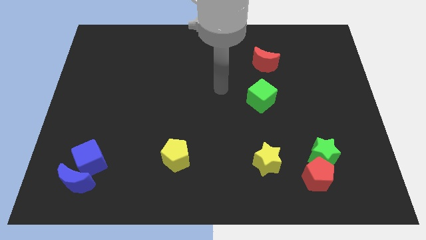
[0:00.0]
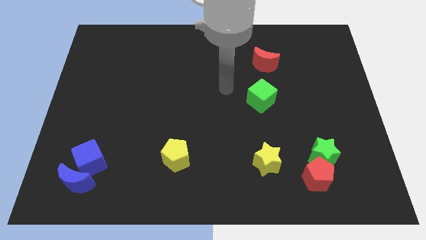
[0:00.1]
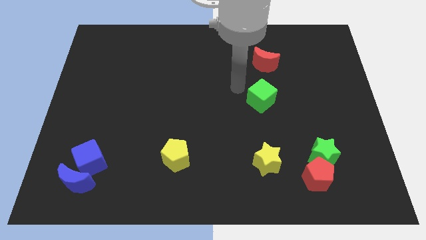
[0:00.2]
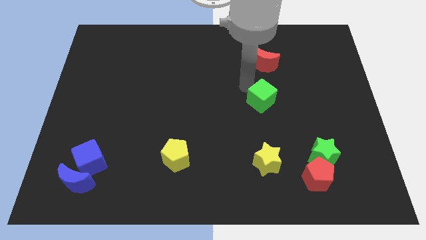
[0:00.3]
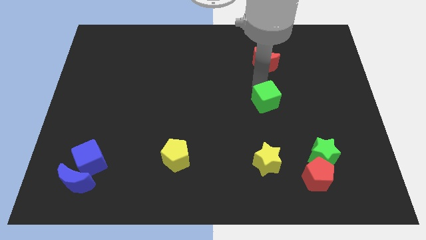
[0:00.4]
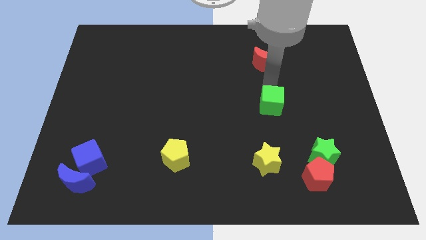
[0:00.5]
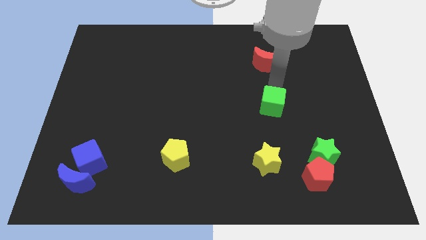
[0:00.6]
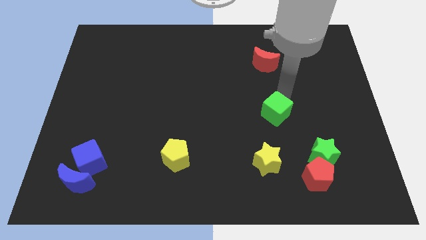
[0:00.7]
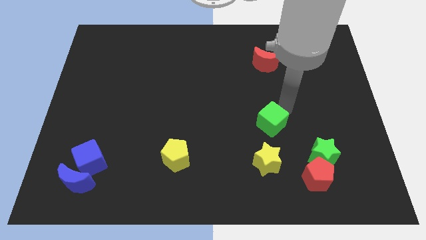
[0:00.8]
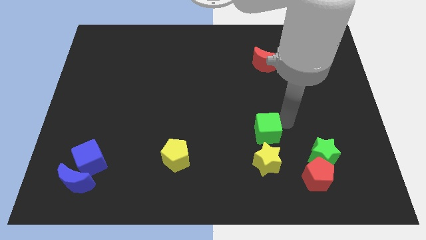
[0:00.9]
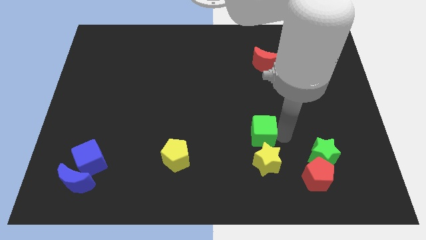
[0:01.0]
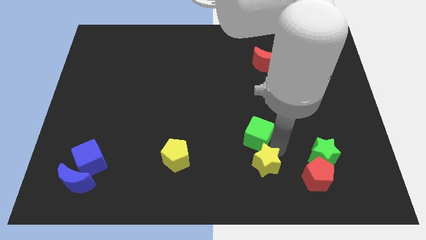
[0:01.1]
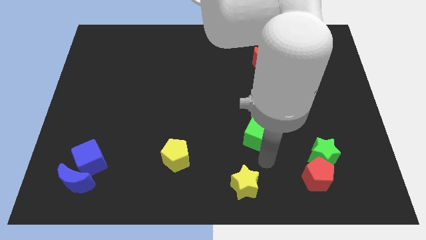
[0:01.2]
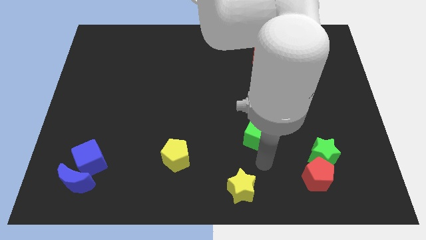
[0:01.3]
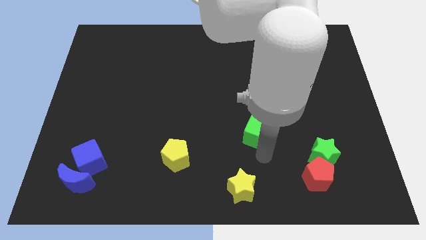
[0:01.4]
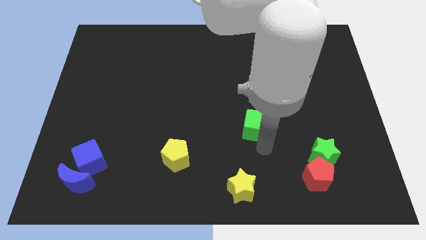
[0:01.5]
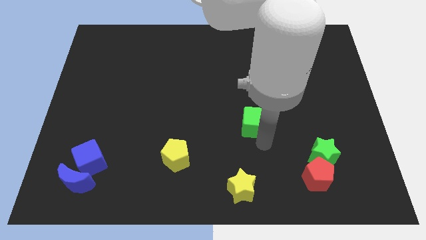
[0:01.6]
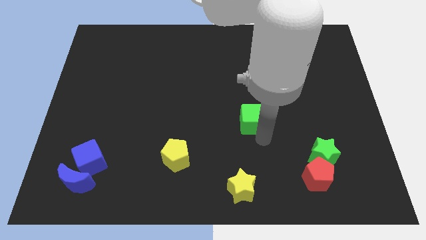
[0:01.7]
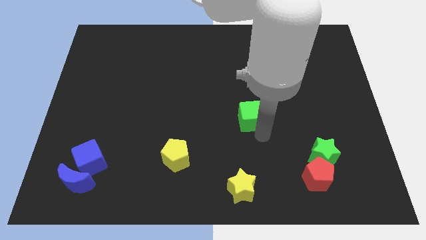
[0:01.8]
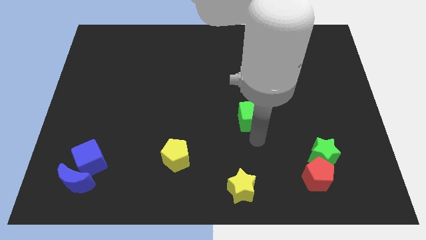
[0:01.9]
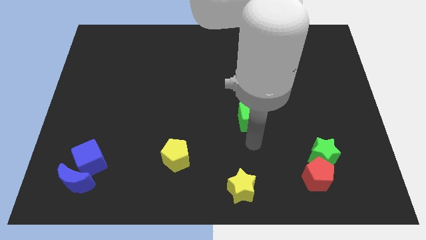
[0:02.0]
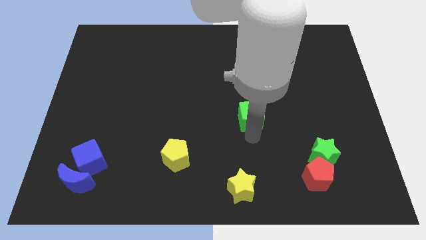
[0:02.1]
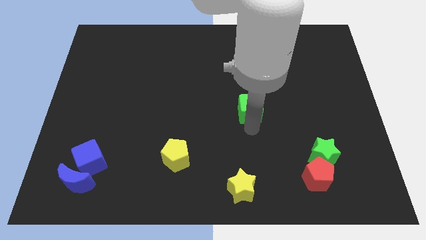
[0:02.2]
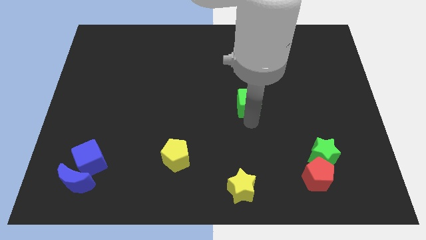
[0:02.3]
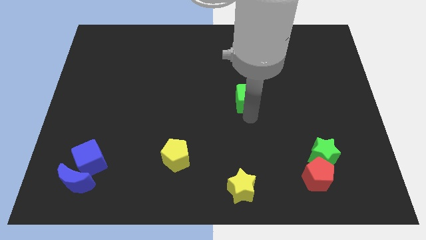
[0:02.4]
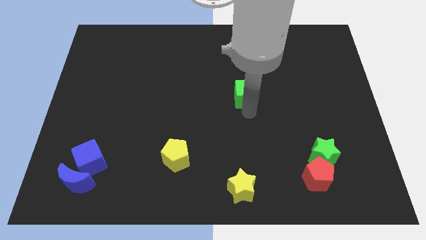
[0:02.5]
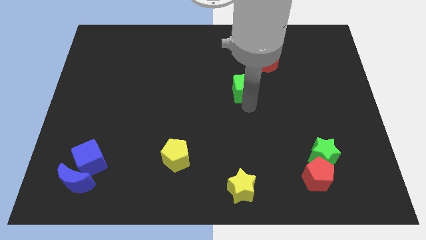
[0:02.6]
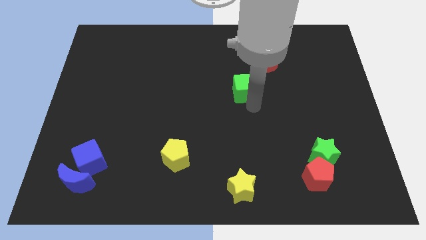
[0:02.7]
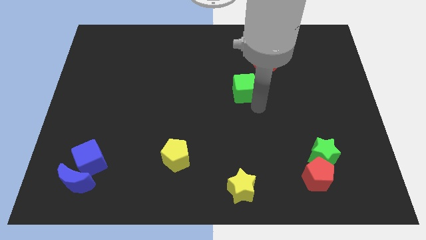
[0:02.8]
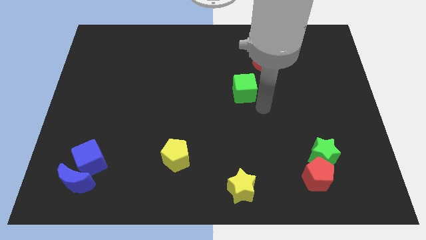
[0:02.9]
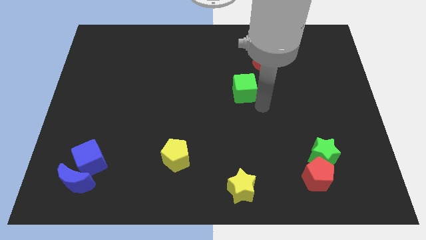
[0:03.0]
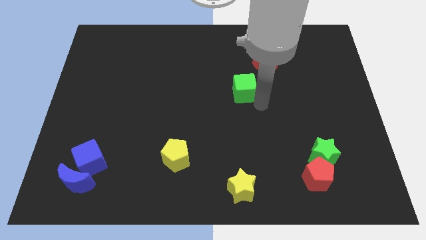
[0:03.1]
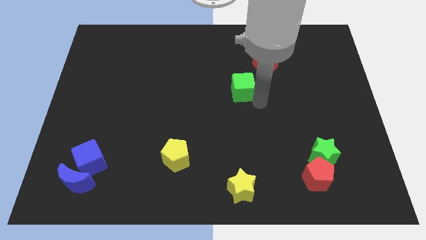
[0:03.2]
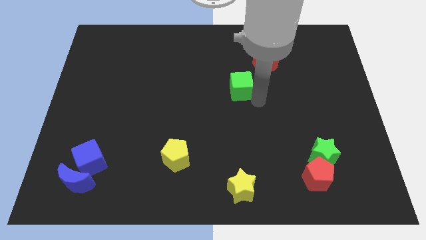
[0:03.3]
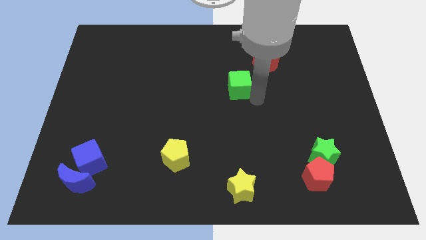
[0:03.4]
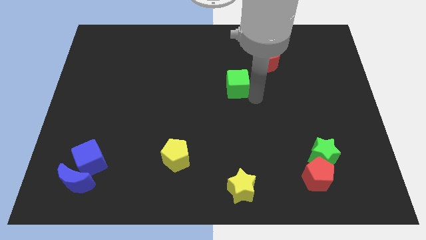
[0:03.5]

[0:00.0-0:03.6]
slightly push the green cube up and then left

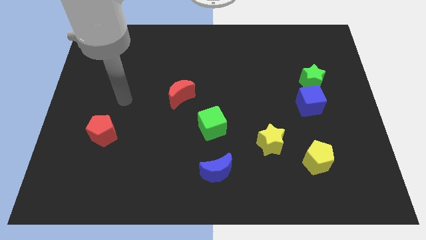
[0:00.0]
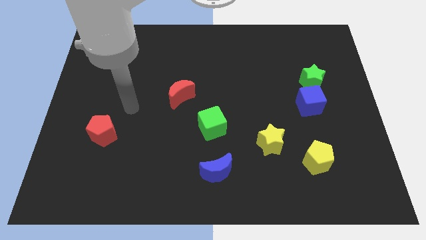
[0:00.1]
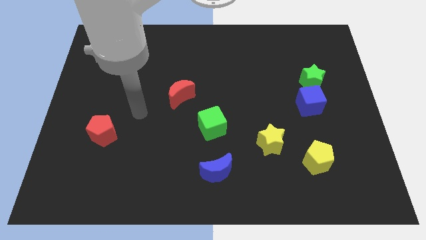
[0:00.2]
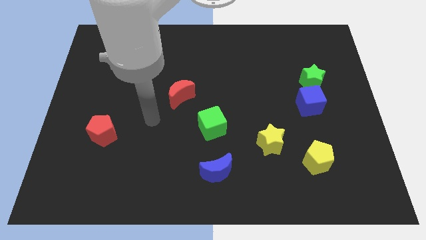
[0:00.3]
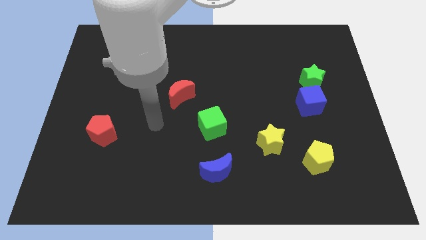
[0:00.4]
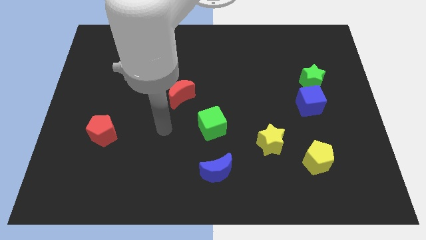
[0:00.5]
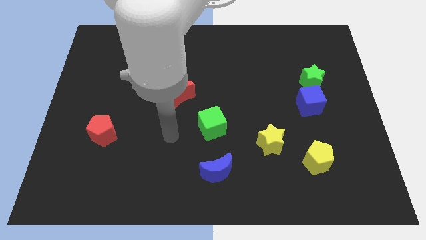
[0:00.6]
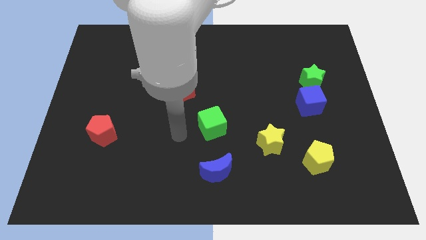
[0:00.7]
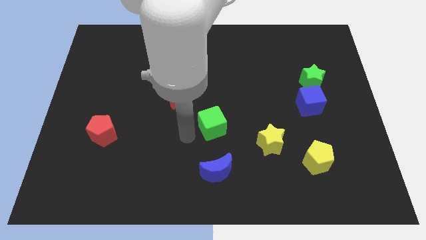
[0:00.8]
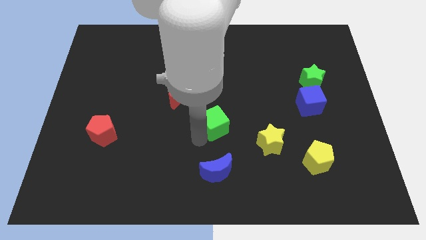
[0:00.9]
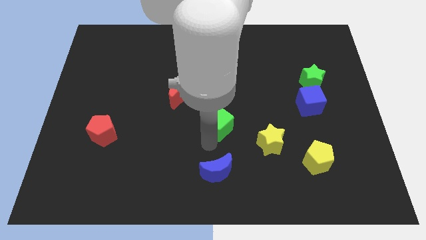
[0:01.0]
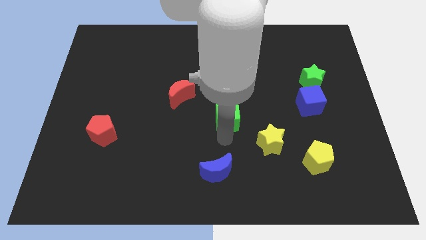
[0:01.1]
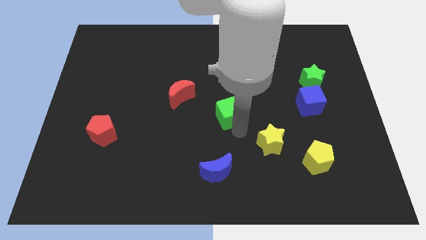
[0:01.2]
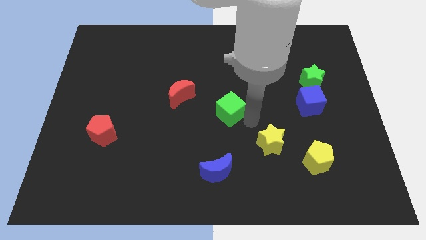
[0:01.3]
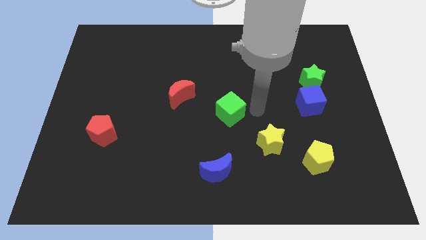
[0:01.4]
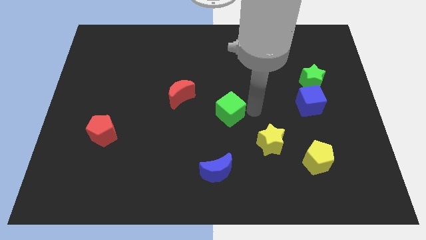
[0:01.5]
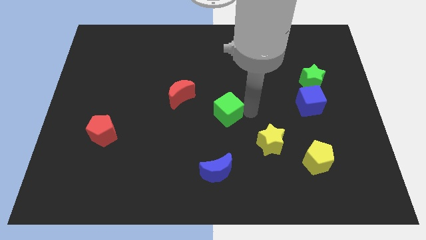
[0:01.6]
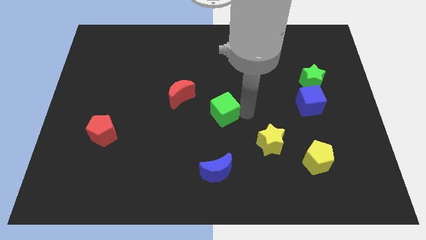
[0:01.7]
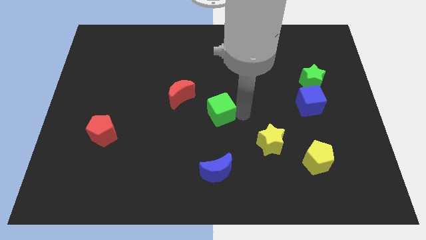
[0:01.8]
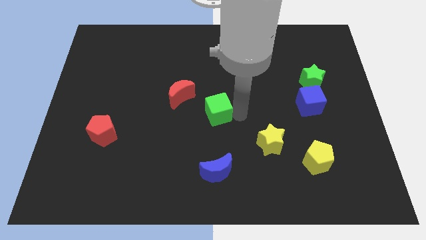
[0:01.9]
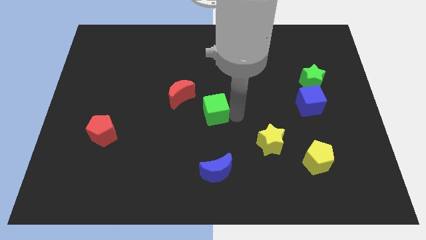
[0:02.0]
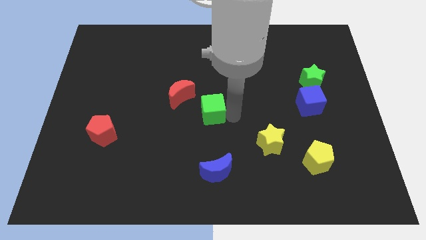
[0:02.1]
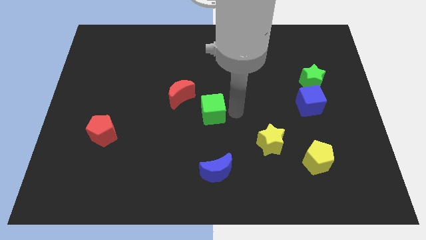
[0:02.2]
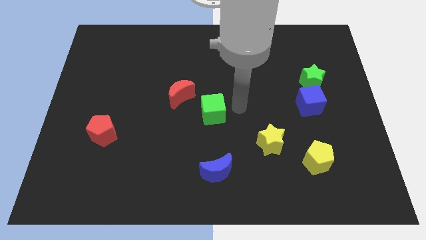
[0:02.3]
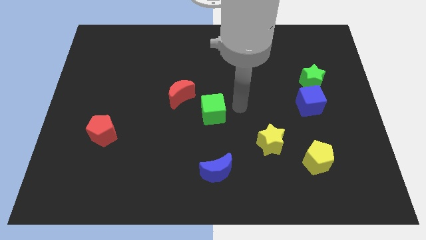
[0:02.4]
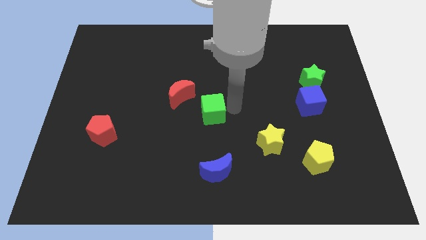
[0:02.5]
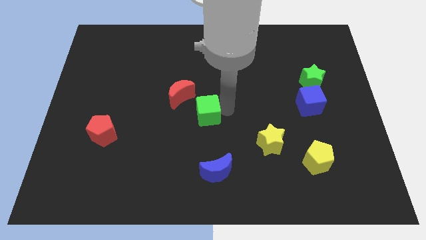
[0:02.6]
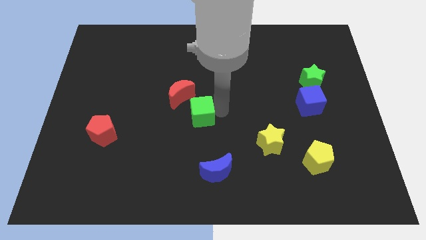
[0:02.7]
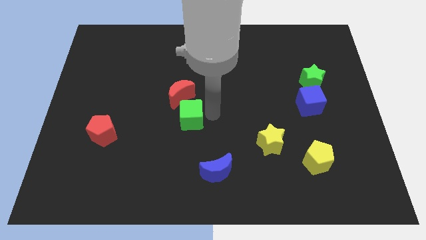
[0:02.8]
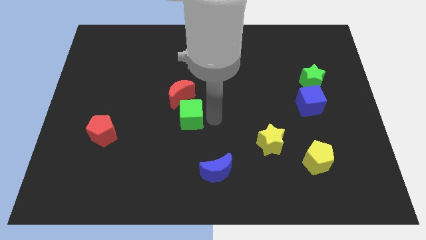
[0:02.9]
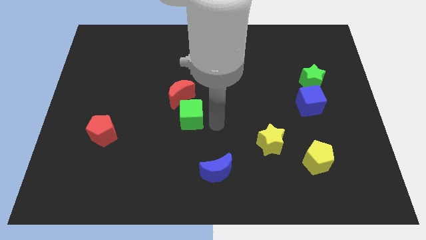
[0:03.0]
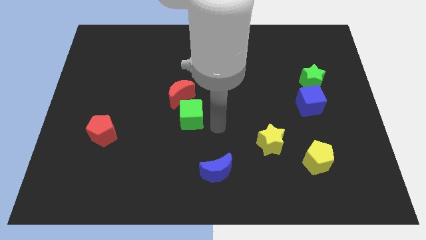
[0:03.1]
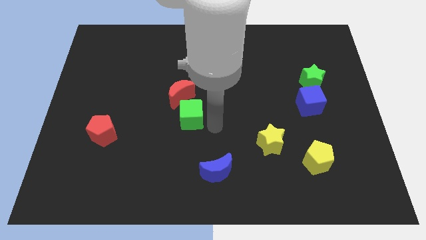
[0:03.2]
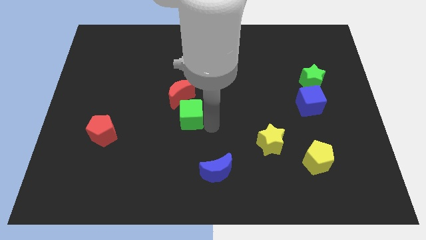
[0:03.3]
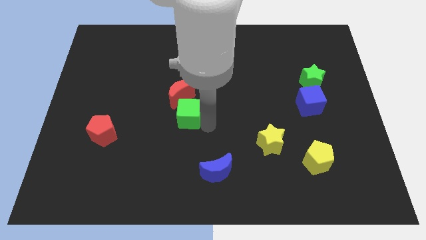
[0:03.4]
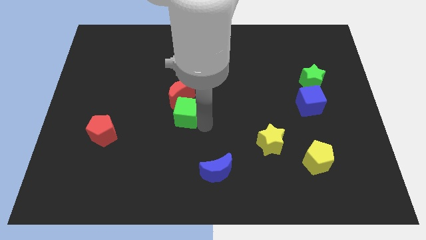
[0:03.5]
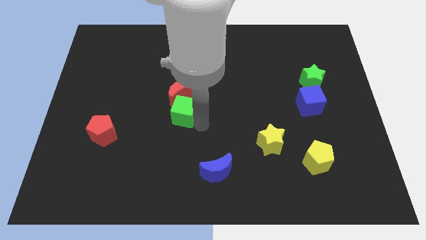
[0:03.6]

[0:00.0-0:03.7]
push the green cube a little bit up and left

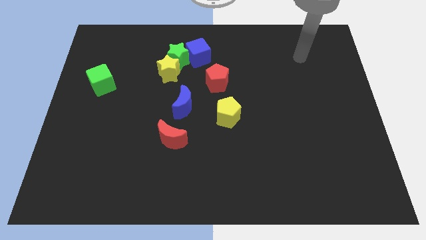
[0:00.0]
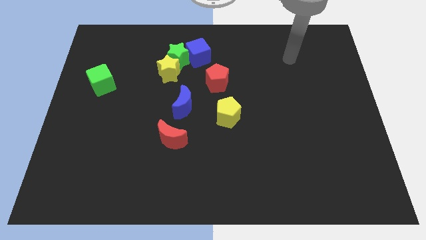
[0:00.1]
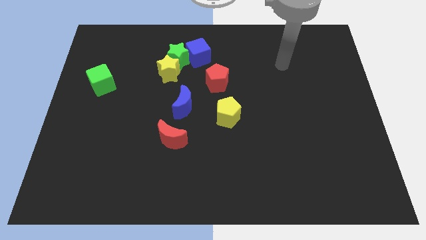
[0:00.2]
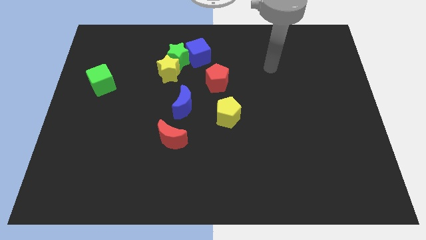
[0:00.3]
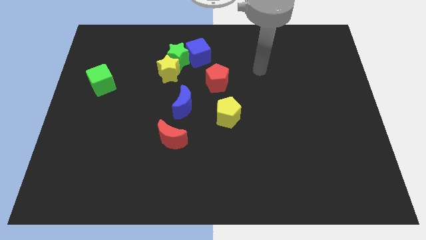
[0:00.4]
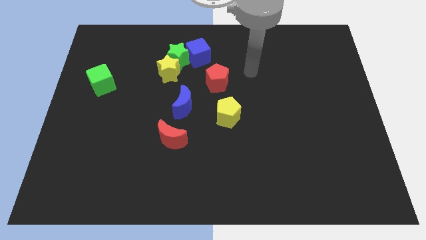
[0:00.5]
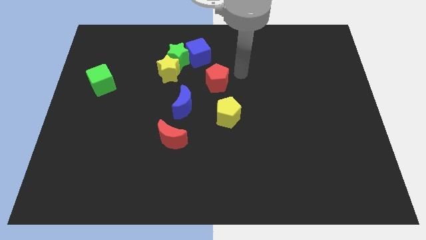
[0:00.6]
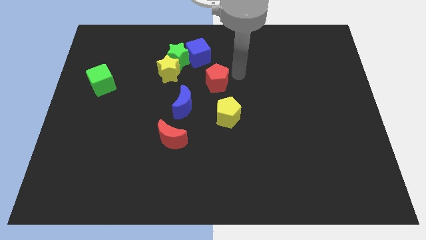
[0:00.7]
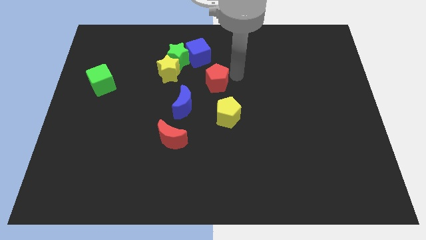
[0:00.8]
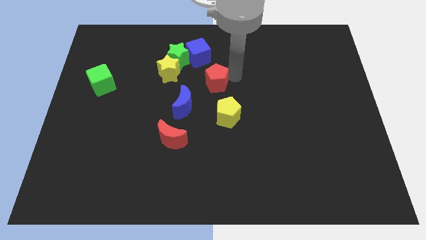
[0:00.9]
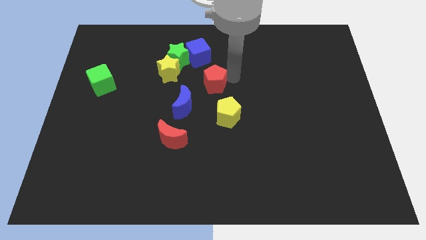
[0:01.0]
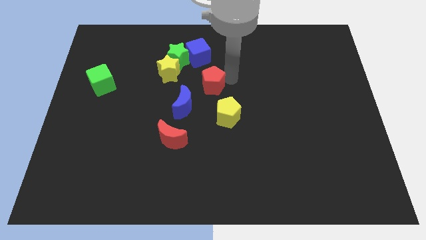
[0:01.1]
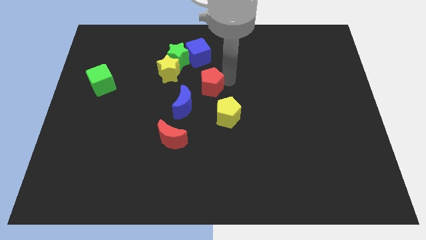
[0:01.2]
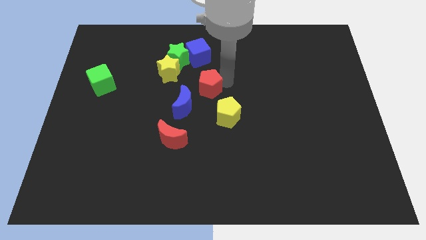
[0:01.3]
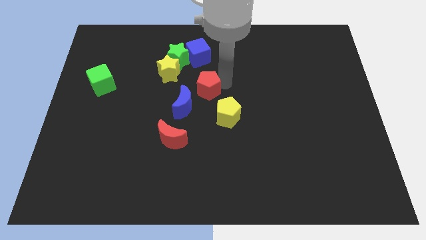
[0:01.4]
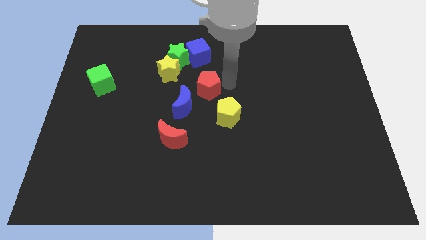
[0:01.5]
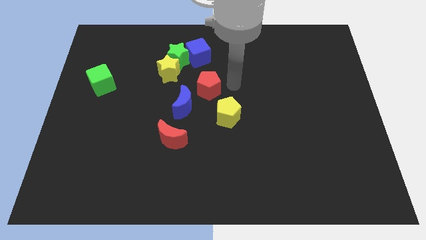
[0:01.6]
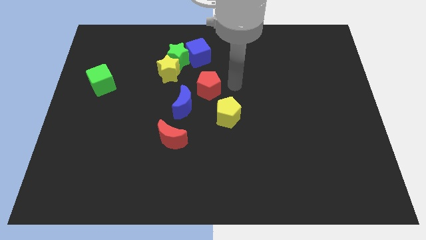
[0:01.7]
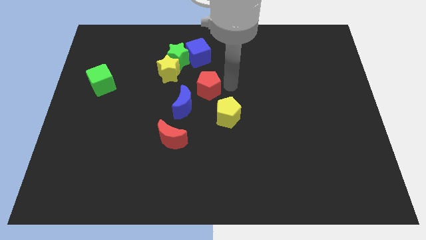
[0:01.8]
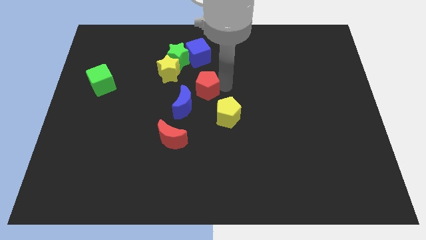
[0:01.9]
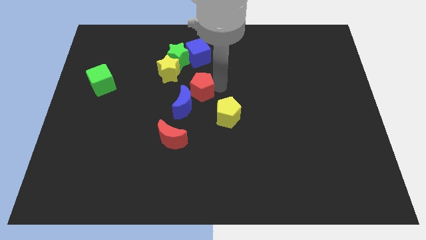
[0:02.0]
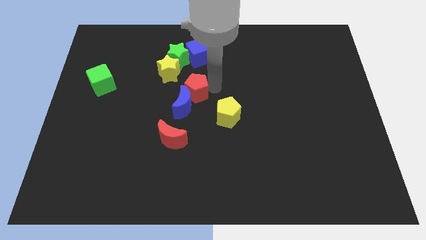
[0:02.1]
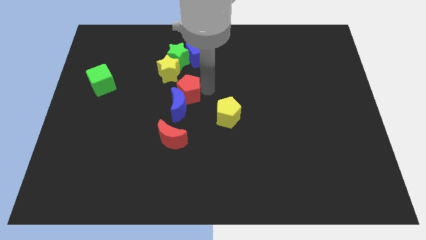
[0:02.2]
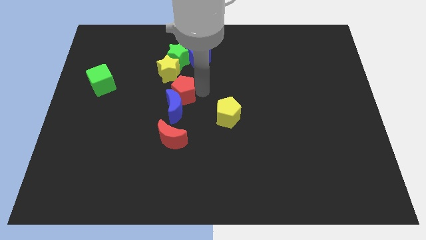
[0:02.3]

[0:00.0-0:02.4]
slide the red pentagon a little bit left
